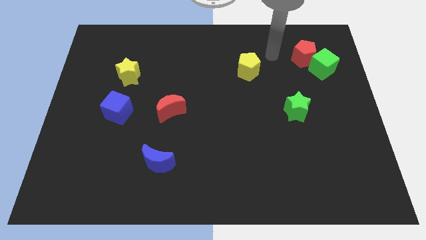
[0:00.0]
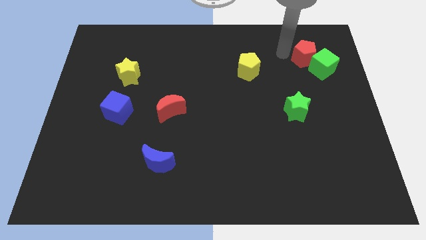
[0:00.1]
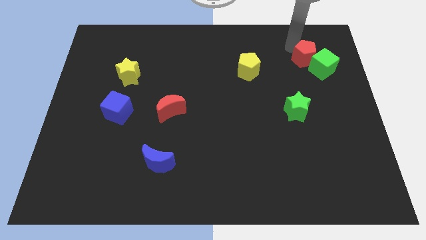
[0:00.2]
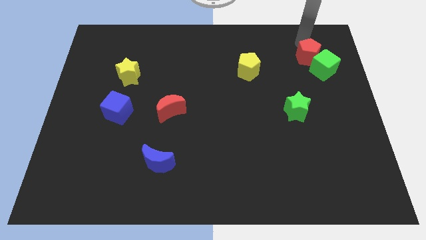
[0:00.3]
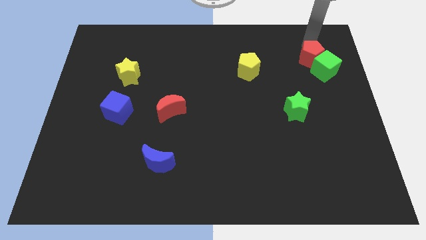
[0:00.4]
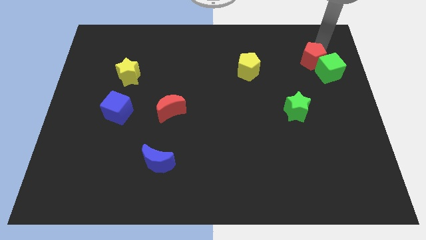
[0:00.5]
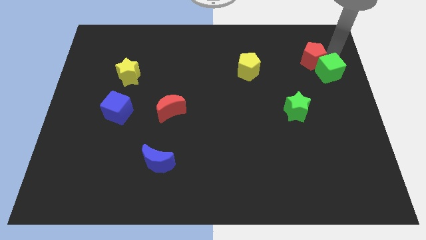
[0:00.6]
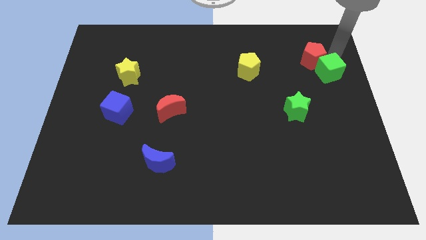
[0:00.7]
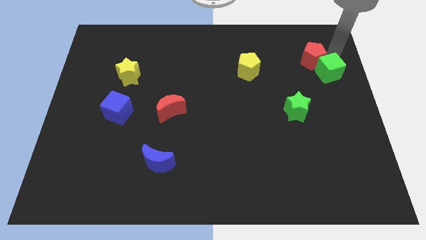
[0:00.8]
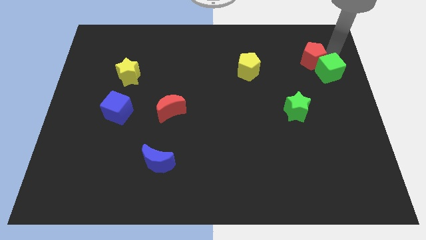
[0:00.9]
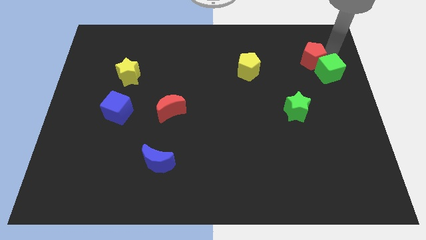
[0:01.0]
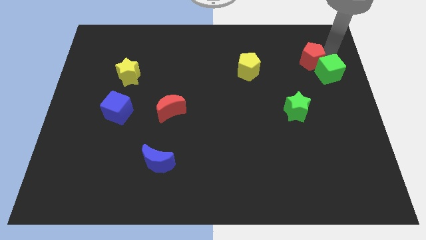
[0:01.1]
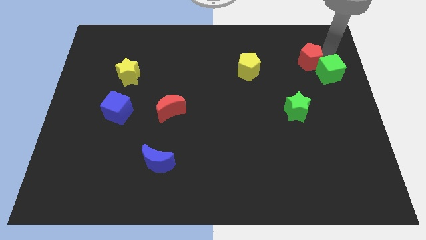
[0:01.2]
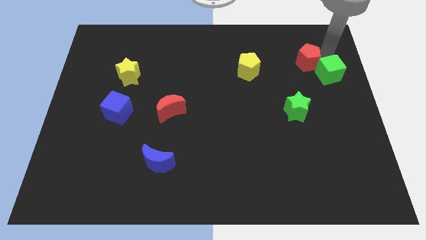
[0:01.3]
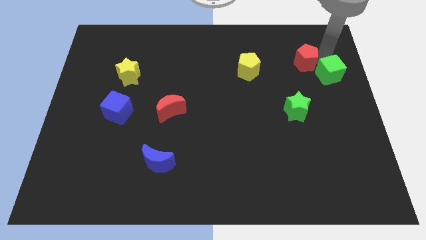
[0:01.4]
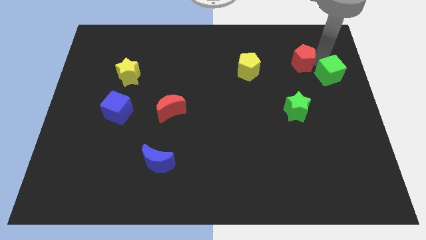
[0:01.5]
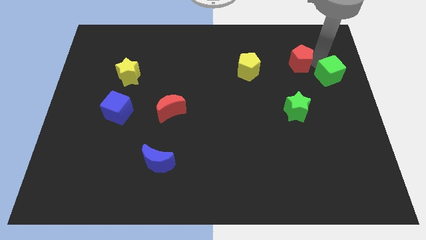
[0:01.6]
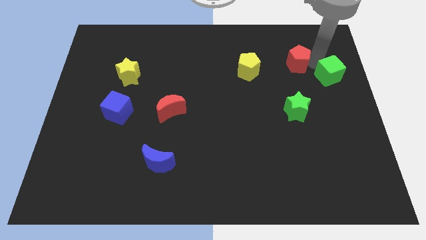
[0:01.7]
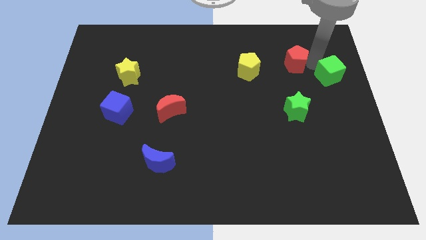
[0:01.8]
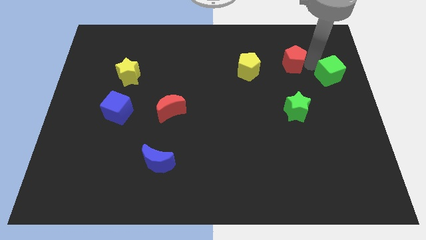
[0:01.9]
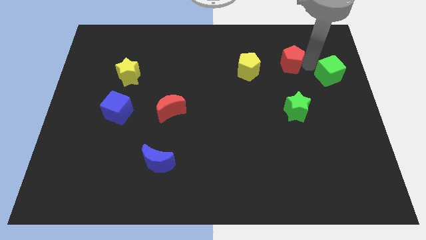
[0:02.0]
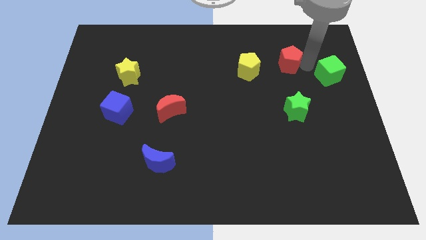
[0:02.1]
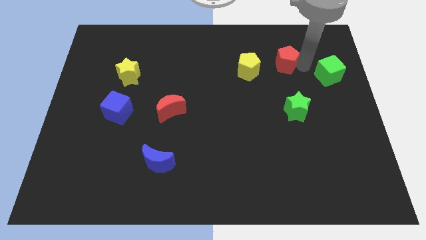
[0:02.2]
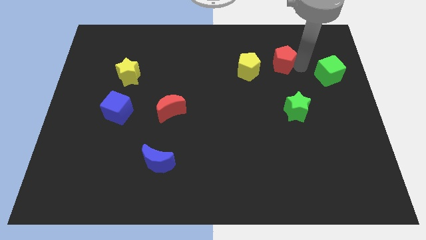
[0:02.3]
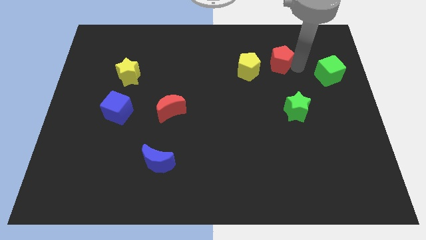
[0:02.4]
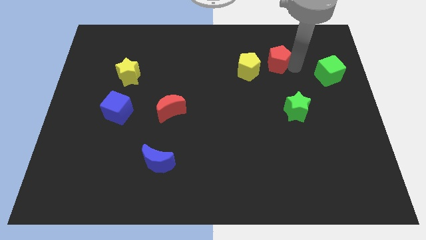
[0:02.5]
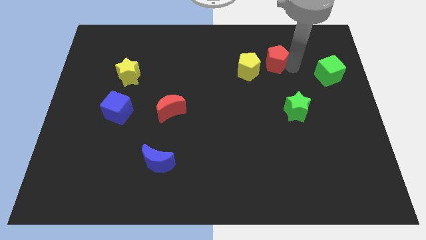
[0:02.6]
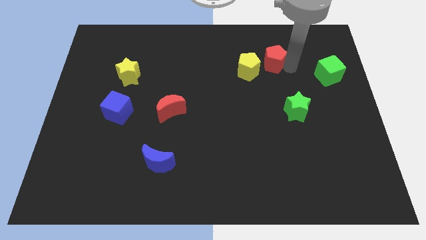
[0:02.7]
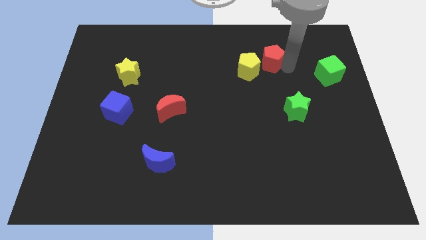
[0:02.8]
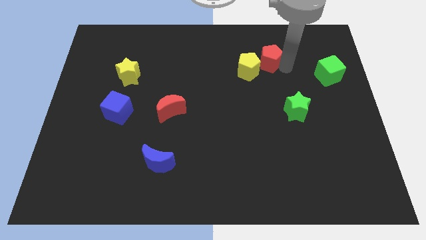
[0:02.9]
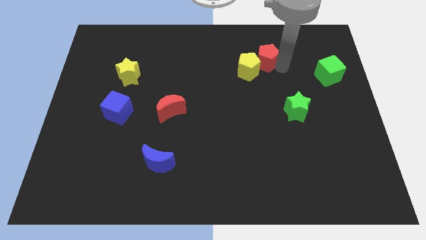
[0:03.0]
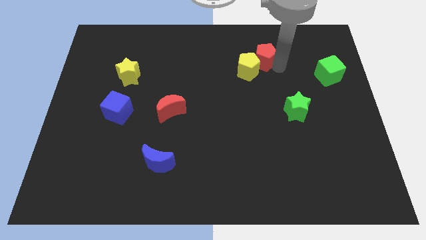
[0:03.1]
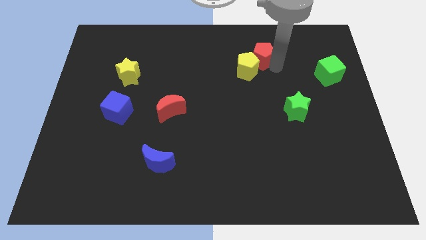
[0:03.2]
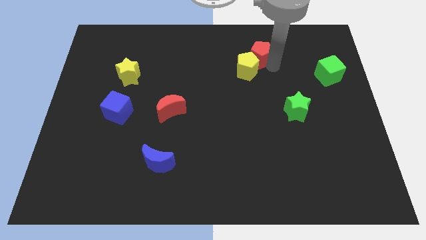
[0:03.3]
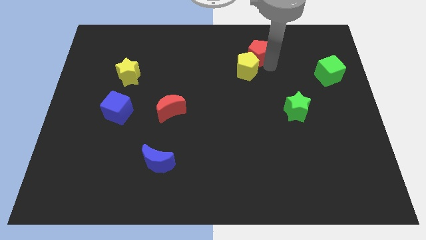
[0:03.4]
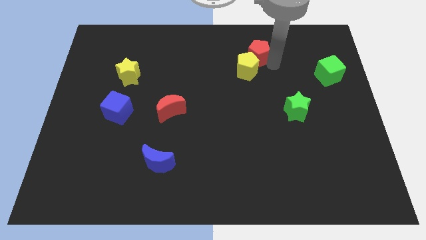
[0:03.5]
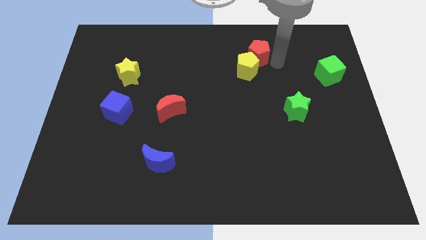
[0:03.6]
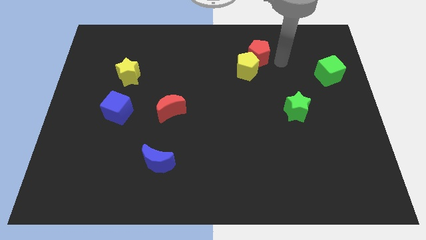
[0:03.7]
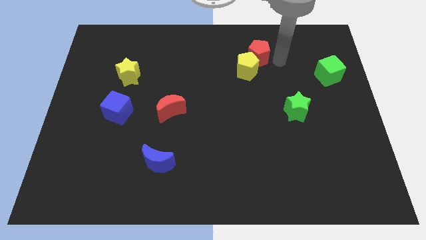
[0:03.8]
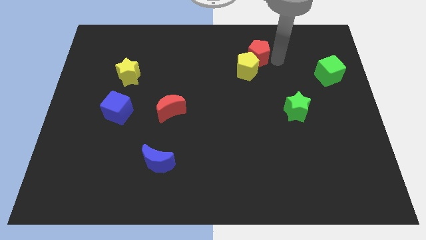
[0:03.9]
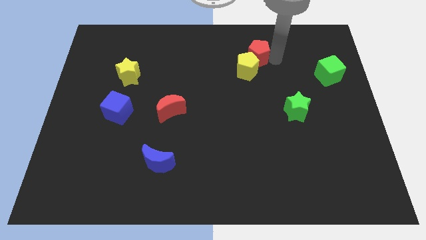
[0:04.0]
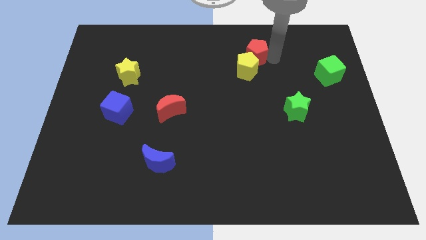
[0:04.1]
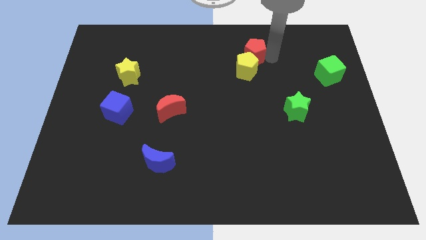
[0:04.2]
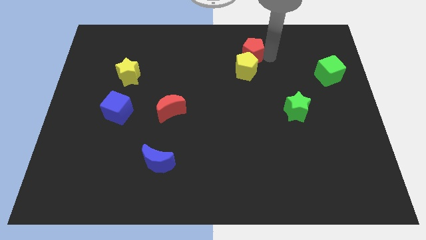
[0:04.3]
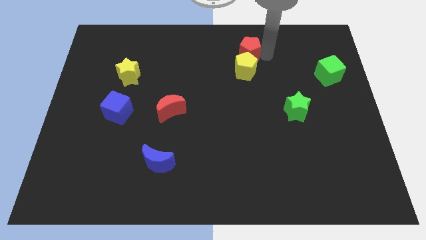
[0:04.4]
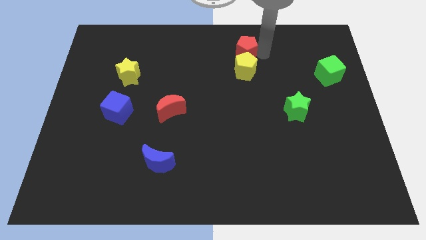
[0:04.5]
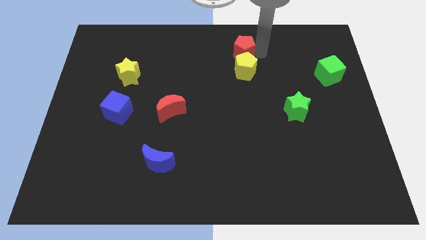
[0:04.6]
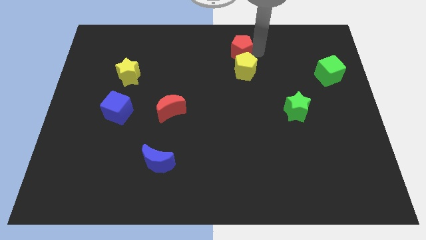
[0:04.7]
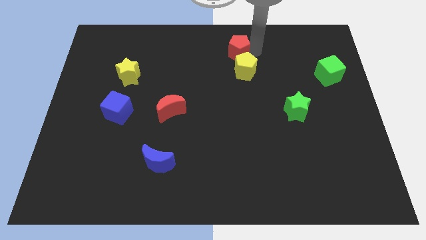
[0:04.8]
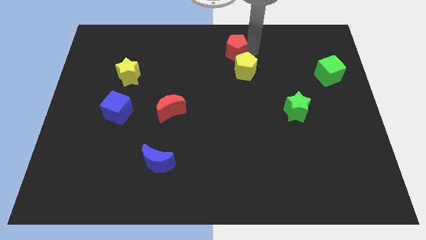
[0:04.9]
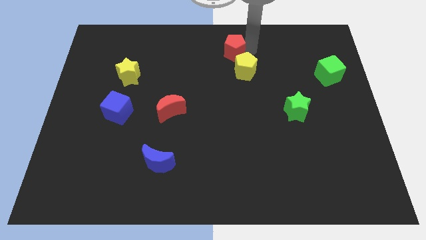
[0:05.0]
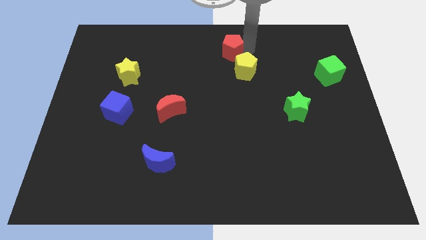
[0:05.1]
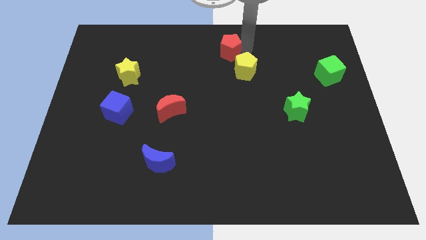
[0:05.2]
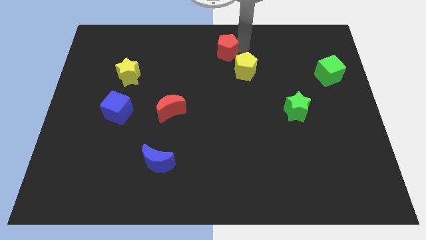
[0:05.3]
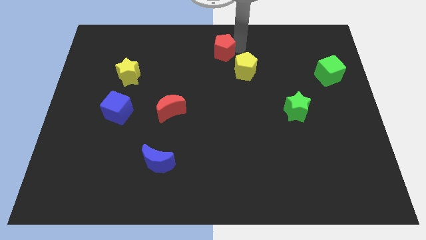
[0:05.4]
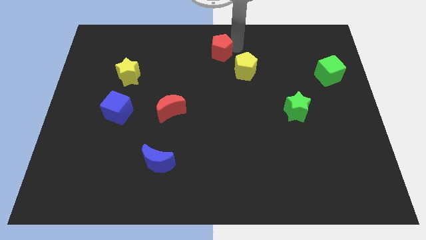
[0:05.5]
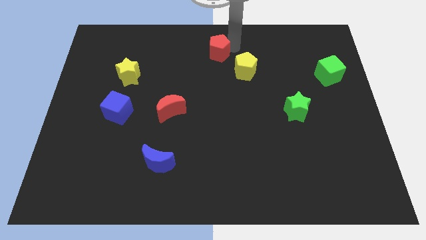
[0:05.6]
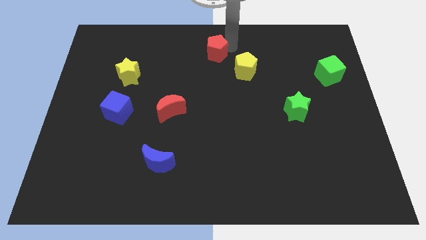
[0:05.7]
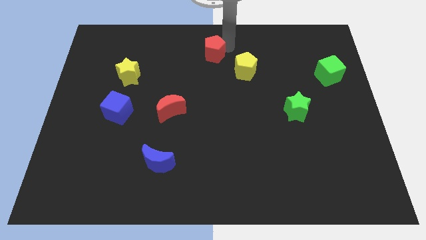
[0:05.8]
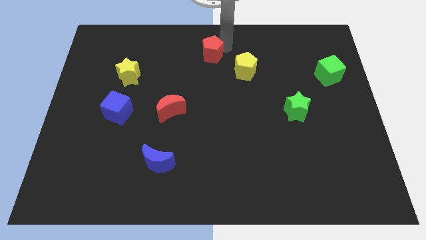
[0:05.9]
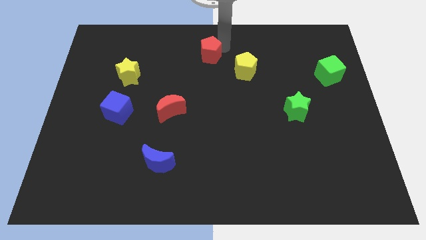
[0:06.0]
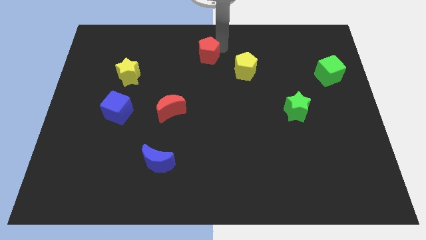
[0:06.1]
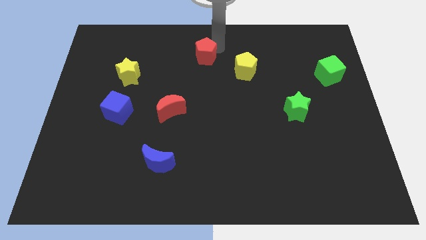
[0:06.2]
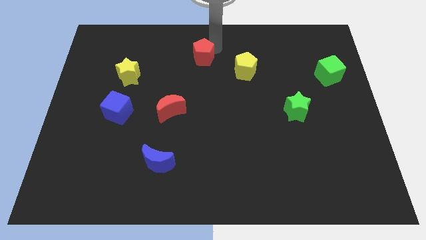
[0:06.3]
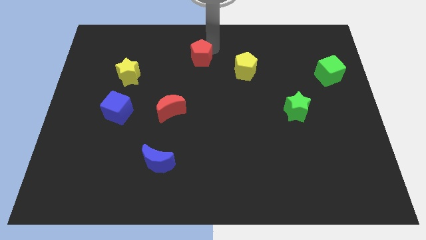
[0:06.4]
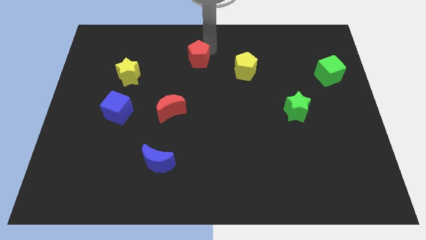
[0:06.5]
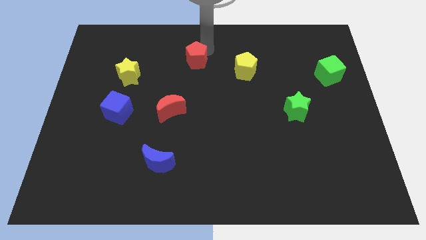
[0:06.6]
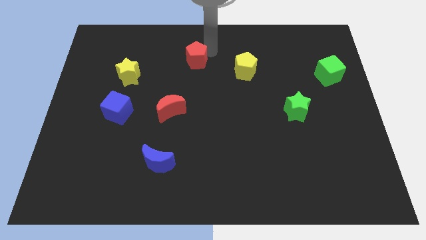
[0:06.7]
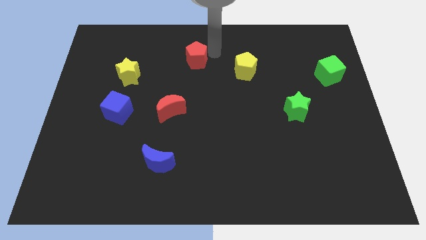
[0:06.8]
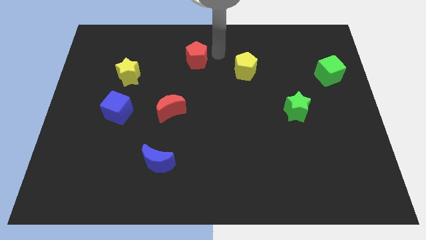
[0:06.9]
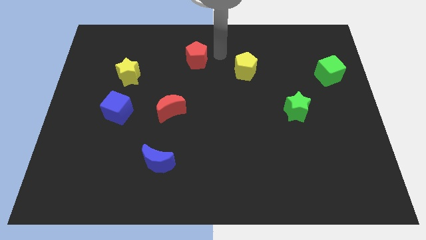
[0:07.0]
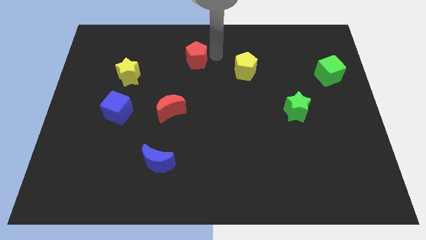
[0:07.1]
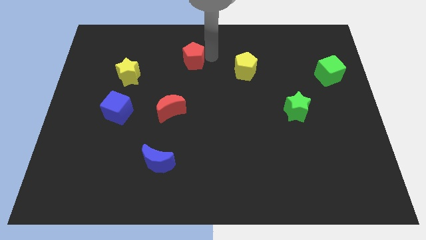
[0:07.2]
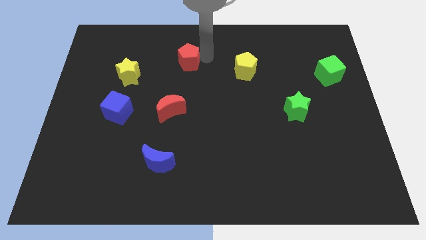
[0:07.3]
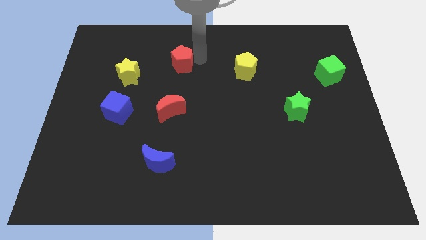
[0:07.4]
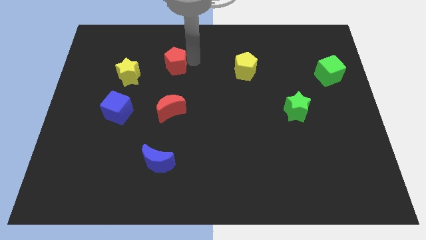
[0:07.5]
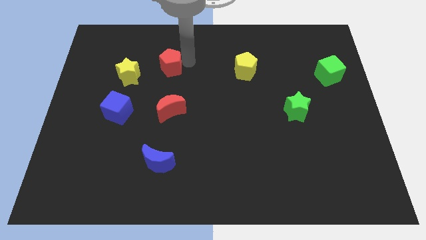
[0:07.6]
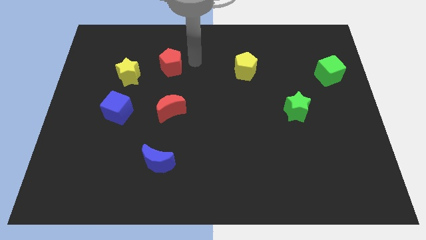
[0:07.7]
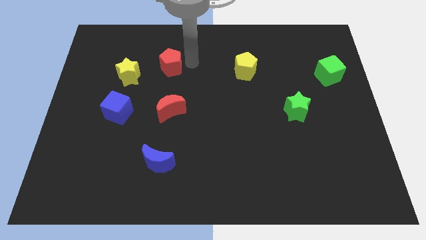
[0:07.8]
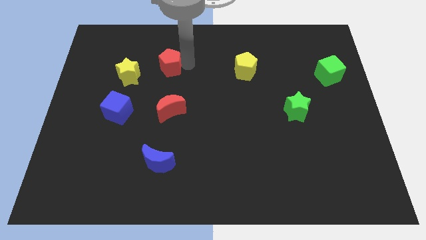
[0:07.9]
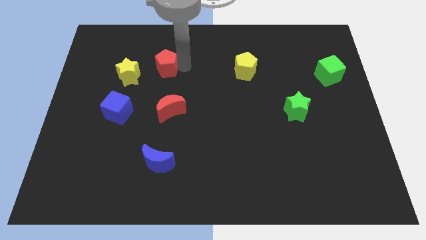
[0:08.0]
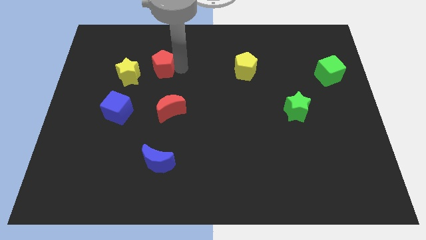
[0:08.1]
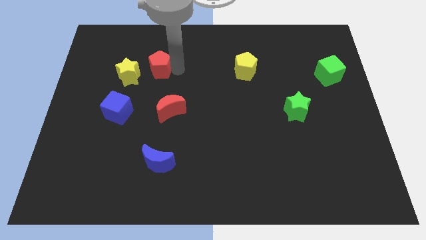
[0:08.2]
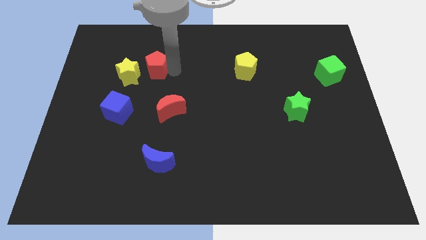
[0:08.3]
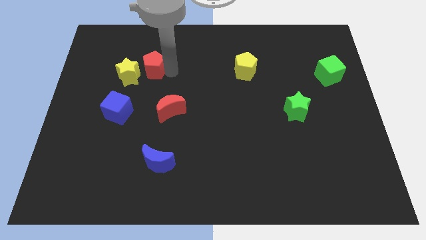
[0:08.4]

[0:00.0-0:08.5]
put the red pentagon towards the yellow star
